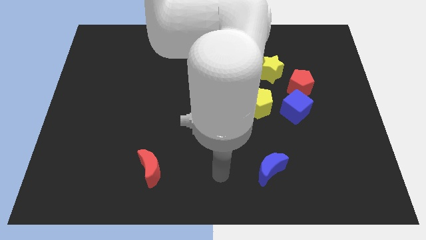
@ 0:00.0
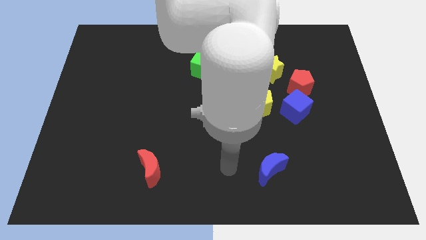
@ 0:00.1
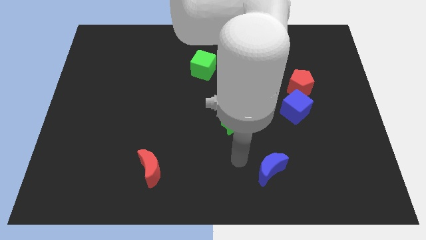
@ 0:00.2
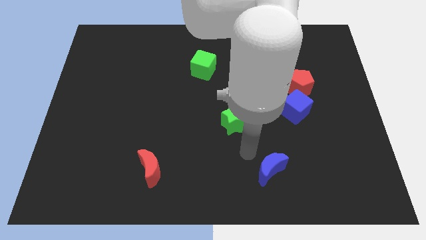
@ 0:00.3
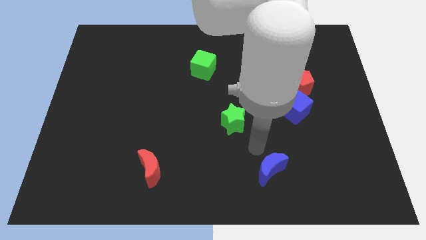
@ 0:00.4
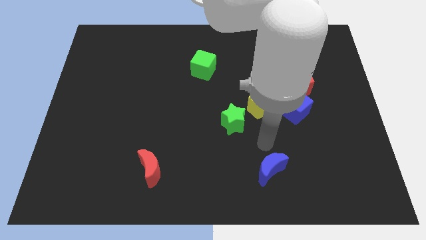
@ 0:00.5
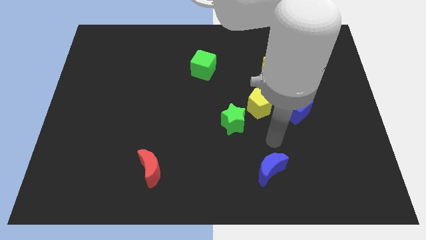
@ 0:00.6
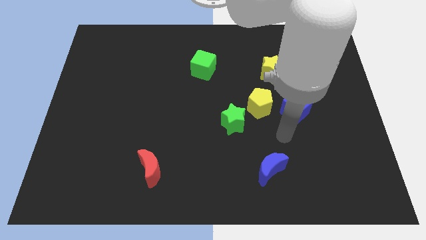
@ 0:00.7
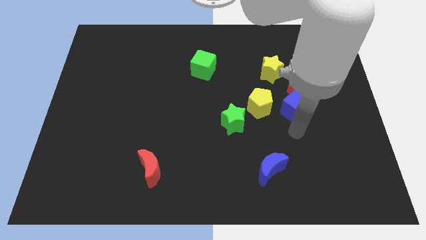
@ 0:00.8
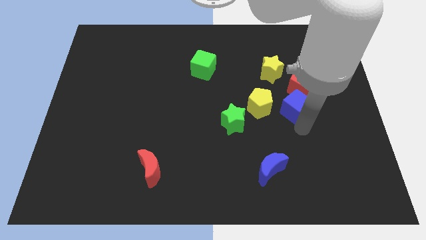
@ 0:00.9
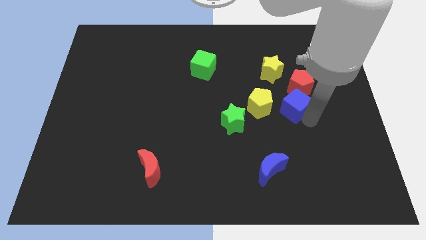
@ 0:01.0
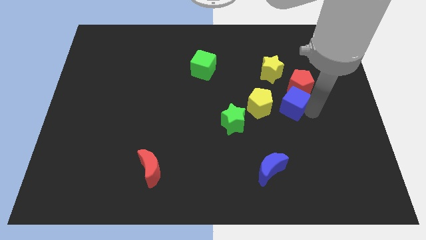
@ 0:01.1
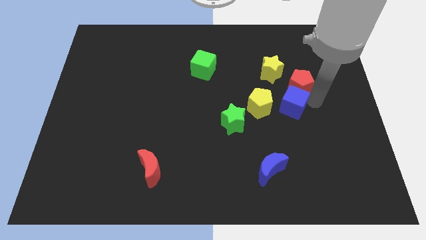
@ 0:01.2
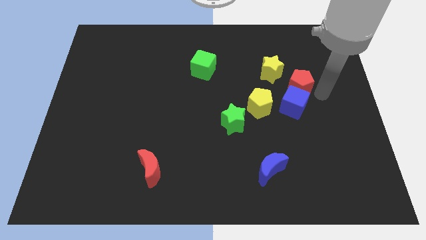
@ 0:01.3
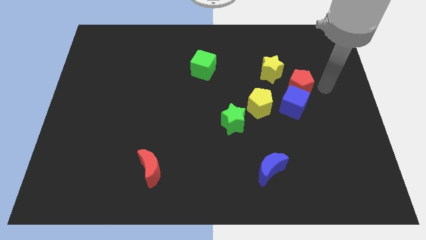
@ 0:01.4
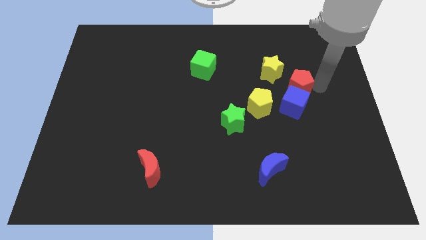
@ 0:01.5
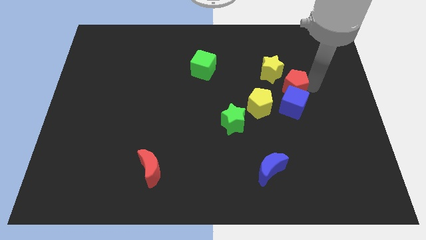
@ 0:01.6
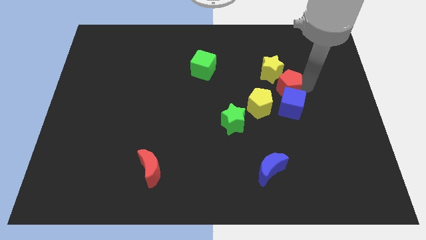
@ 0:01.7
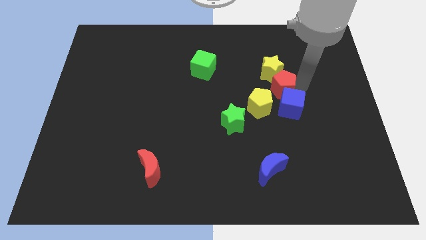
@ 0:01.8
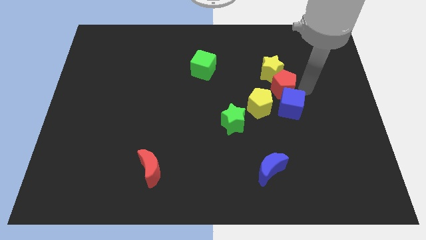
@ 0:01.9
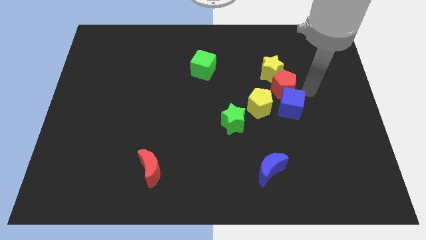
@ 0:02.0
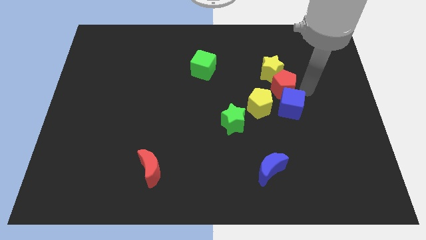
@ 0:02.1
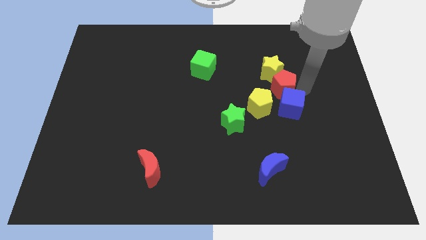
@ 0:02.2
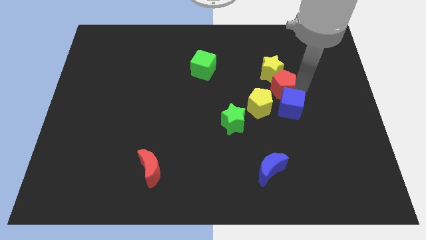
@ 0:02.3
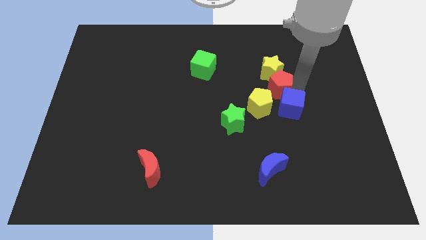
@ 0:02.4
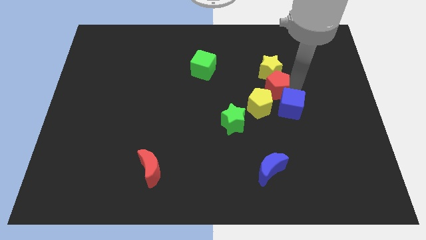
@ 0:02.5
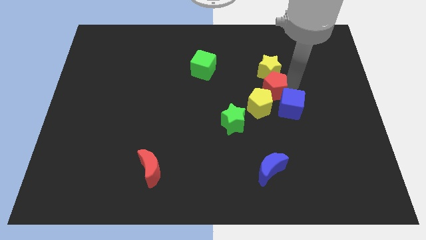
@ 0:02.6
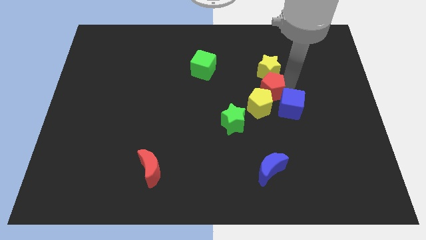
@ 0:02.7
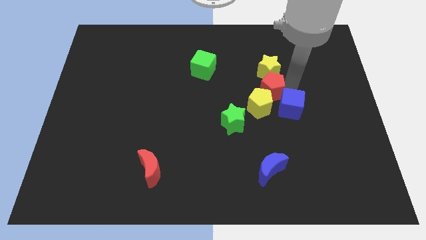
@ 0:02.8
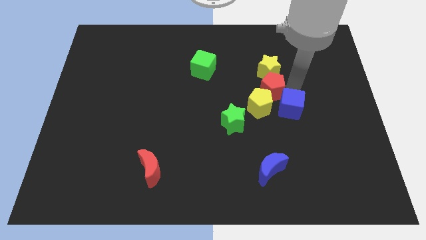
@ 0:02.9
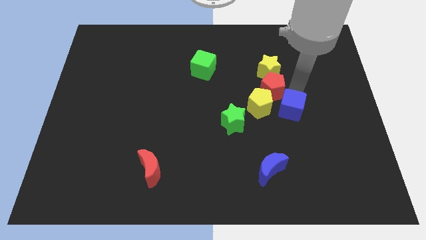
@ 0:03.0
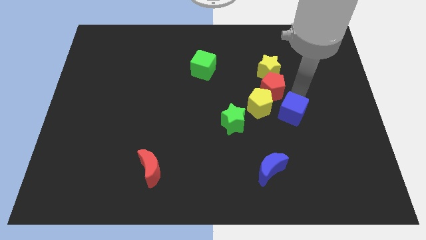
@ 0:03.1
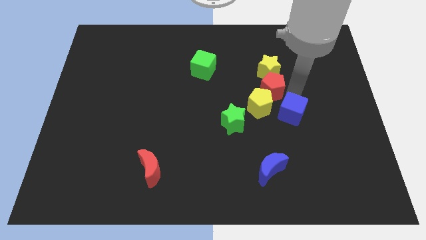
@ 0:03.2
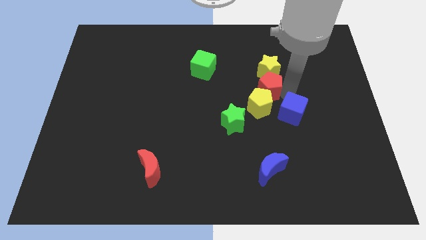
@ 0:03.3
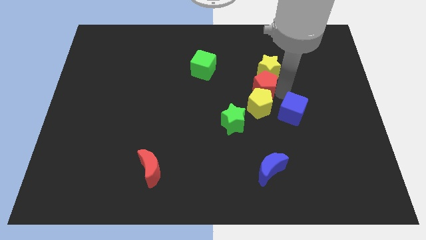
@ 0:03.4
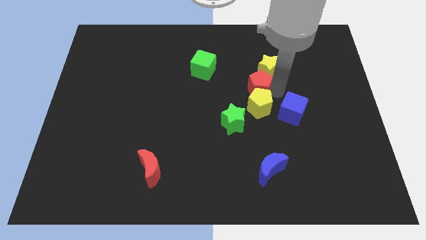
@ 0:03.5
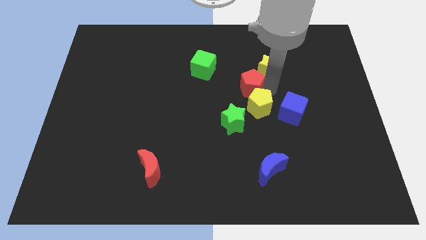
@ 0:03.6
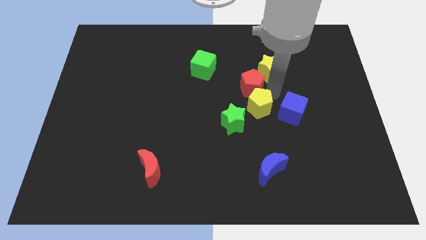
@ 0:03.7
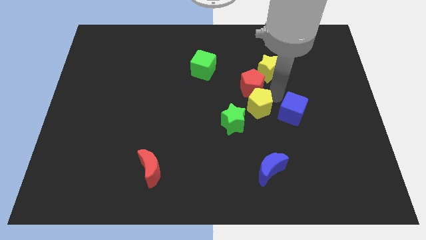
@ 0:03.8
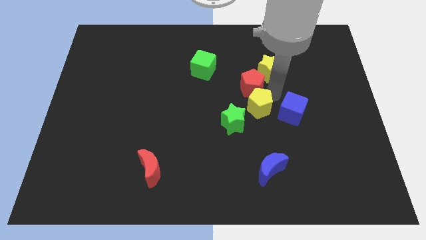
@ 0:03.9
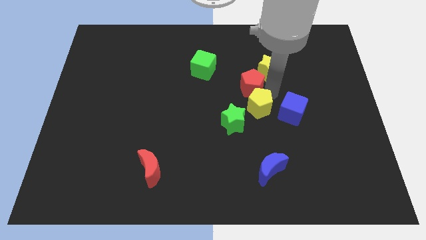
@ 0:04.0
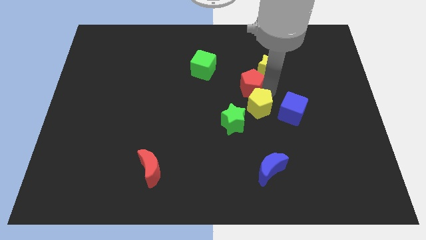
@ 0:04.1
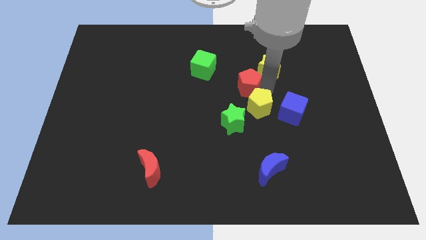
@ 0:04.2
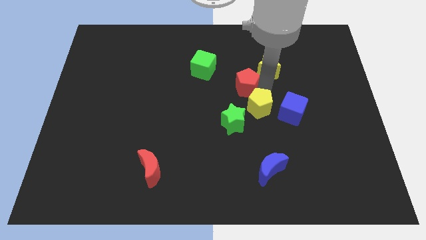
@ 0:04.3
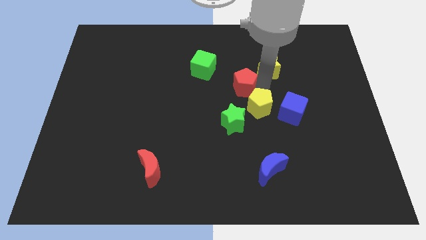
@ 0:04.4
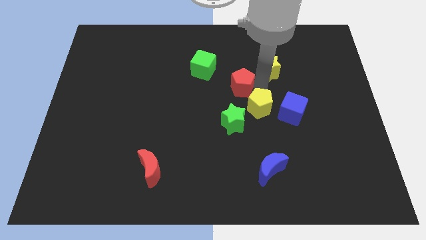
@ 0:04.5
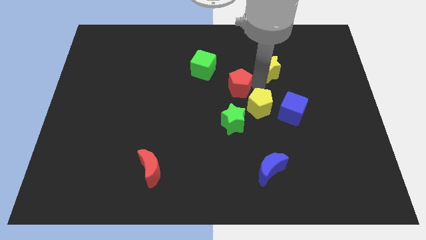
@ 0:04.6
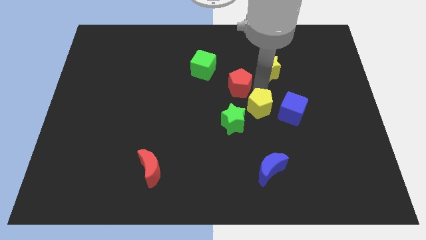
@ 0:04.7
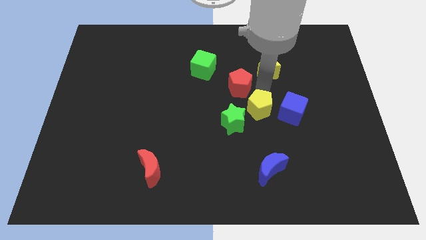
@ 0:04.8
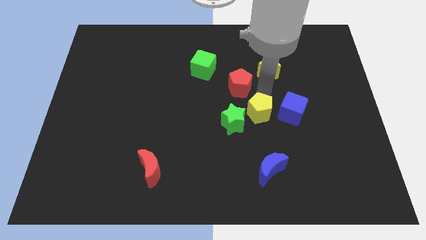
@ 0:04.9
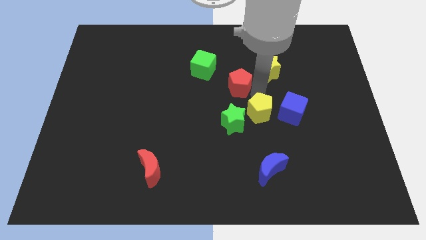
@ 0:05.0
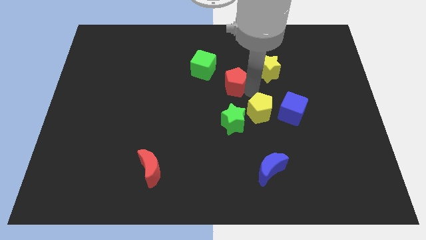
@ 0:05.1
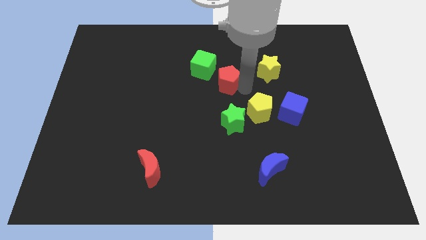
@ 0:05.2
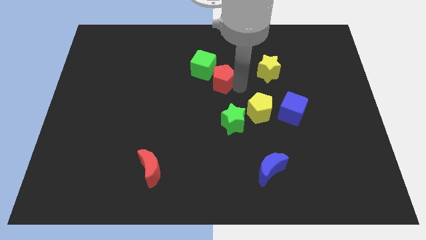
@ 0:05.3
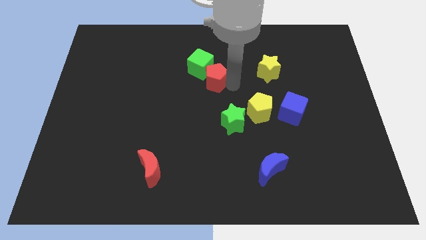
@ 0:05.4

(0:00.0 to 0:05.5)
slide the red pentagon next to the green cube

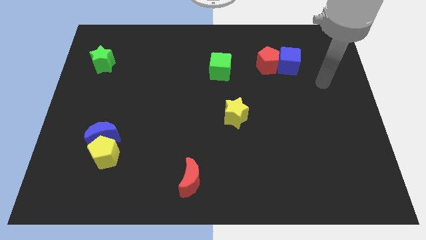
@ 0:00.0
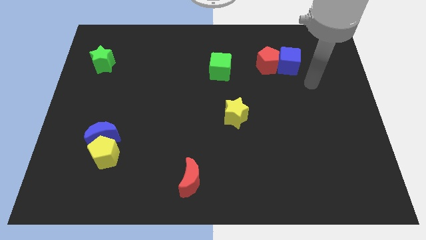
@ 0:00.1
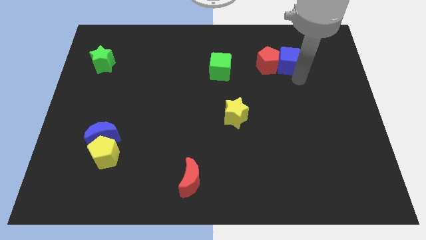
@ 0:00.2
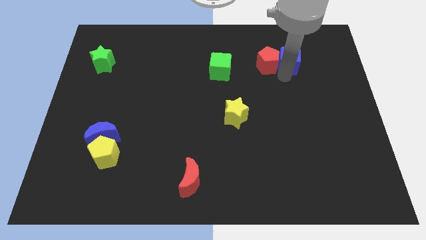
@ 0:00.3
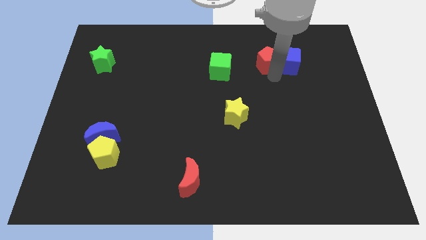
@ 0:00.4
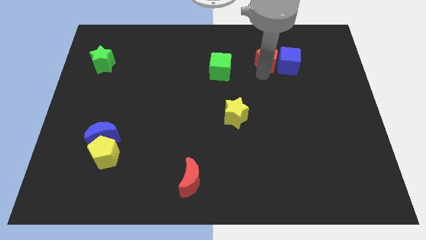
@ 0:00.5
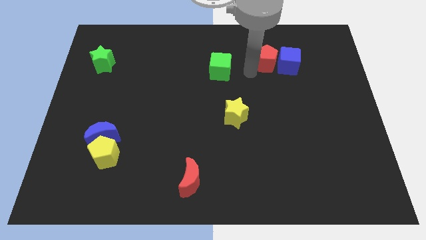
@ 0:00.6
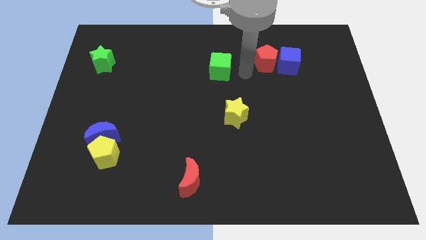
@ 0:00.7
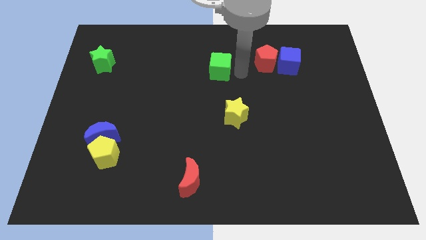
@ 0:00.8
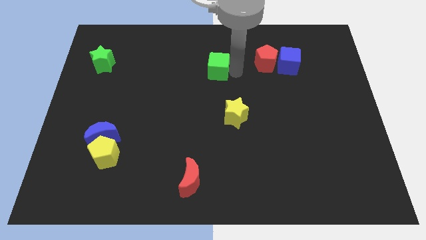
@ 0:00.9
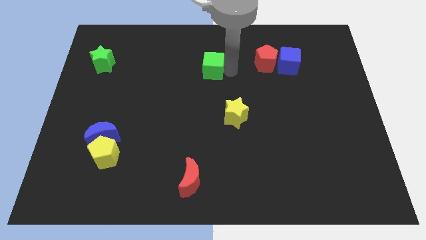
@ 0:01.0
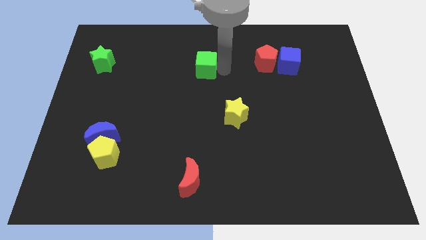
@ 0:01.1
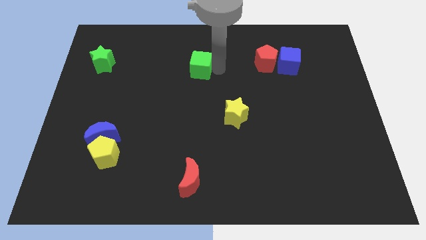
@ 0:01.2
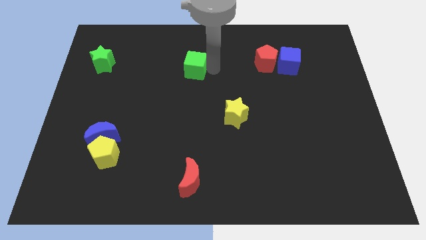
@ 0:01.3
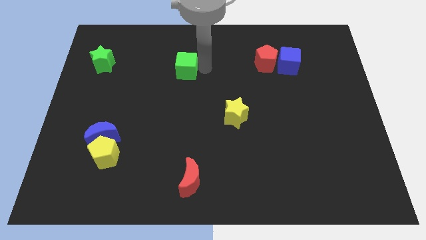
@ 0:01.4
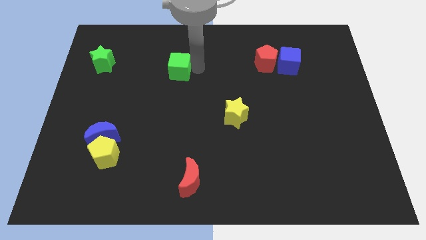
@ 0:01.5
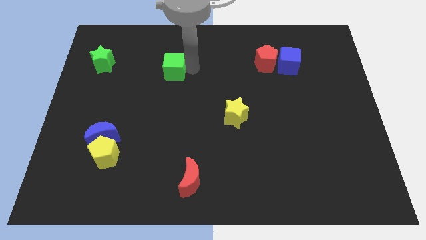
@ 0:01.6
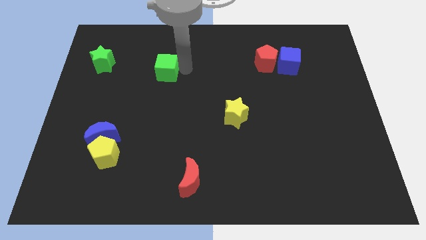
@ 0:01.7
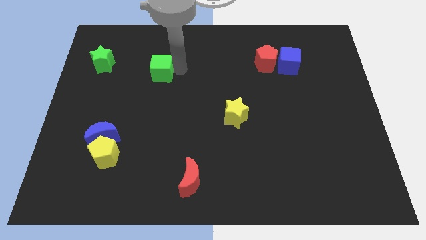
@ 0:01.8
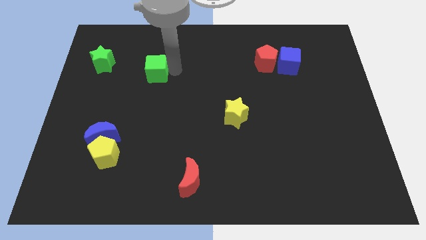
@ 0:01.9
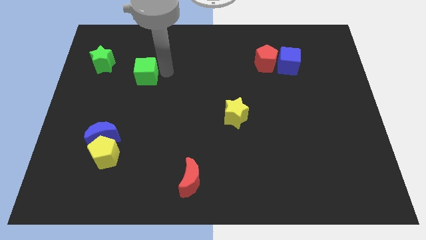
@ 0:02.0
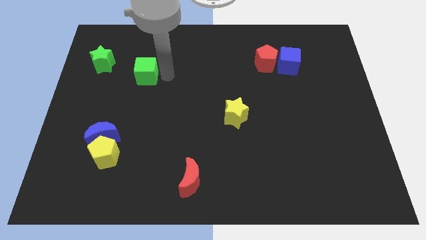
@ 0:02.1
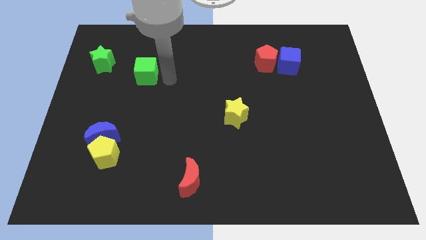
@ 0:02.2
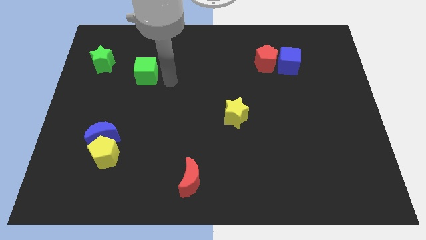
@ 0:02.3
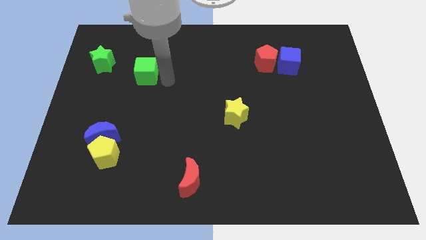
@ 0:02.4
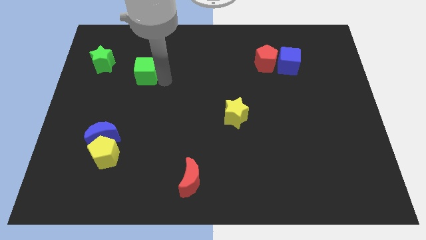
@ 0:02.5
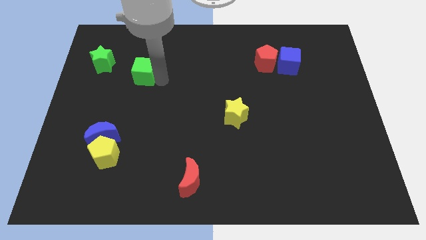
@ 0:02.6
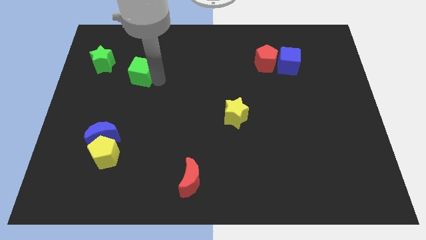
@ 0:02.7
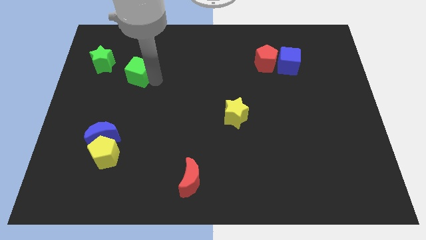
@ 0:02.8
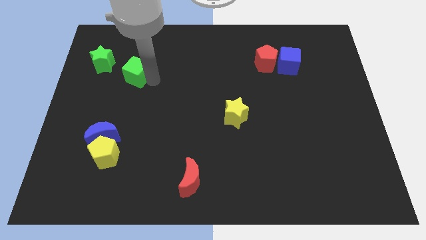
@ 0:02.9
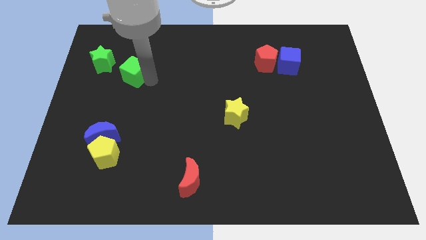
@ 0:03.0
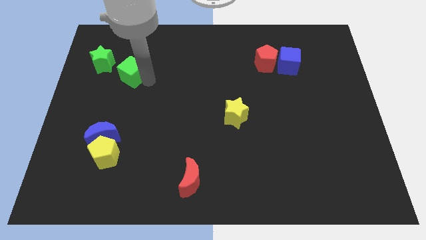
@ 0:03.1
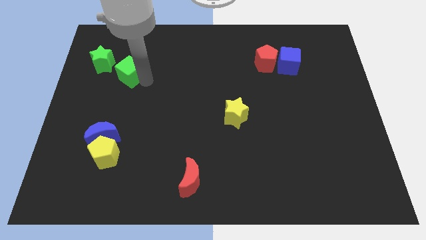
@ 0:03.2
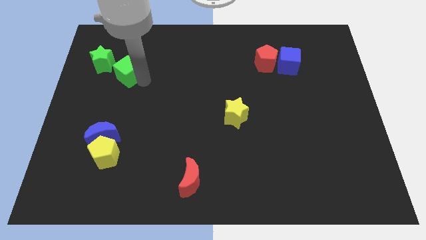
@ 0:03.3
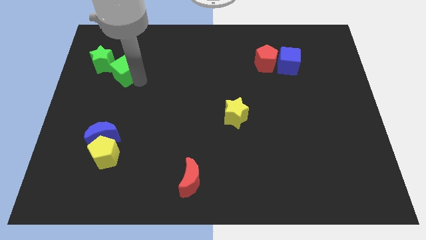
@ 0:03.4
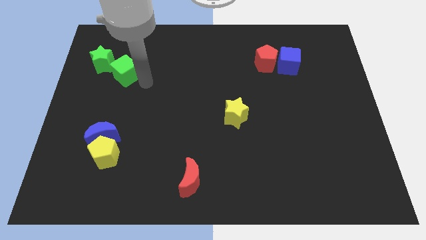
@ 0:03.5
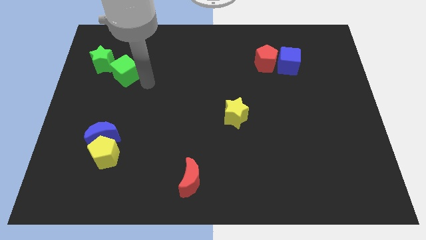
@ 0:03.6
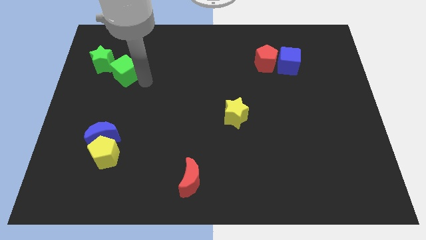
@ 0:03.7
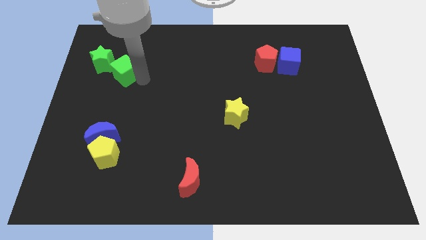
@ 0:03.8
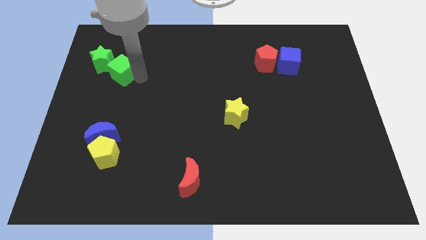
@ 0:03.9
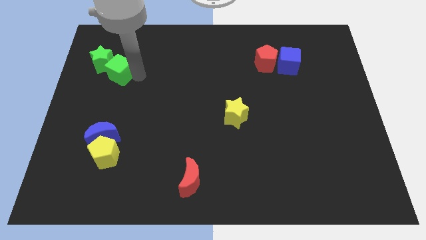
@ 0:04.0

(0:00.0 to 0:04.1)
put the green cube towards the green star
